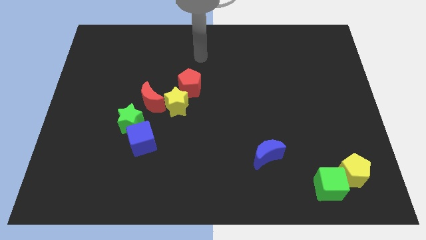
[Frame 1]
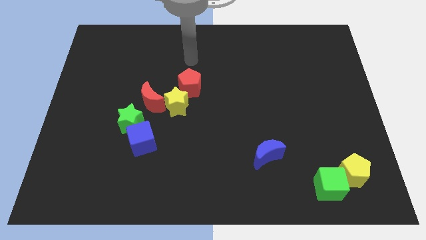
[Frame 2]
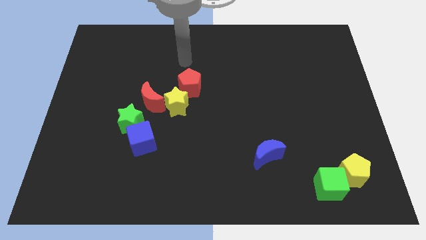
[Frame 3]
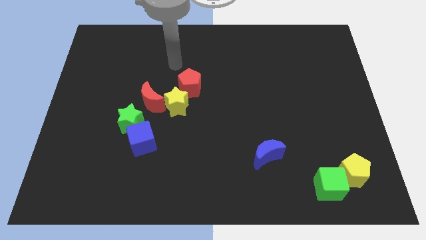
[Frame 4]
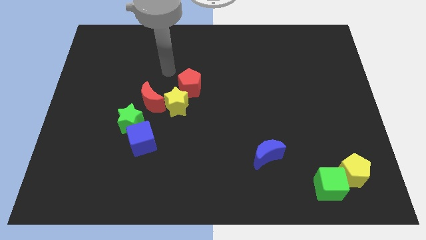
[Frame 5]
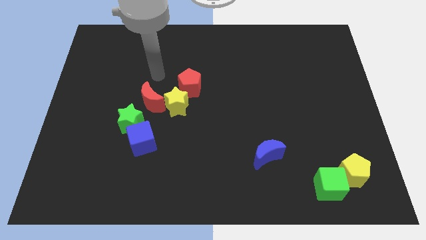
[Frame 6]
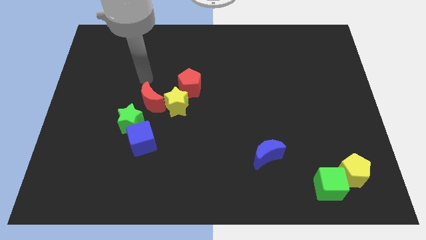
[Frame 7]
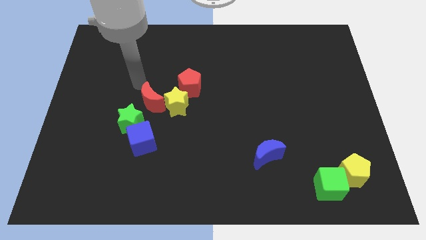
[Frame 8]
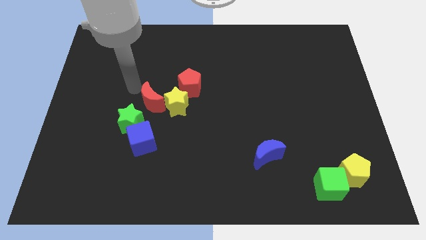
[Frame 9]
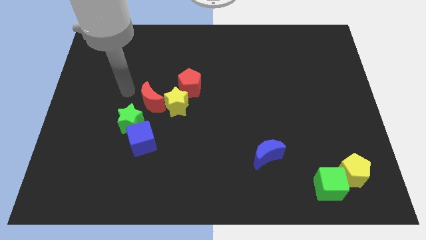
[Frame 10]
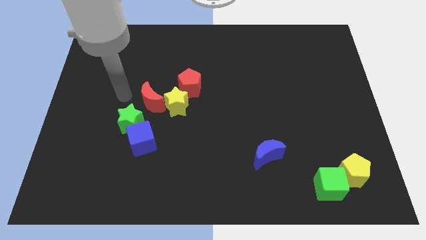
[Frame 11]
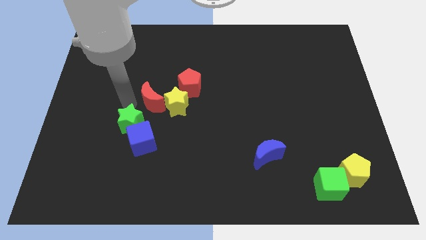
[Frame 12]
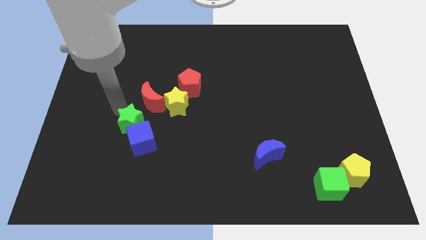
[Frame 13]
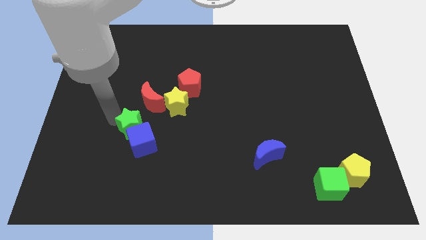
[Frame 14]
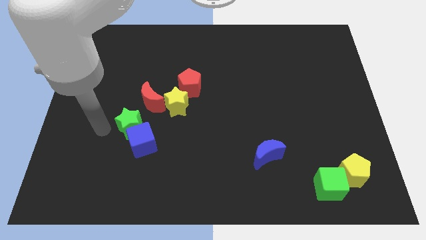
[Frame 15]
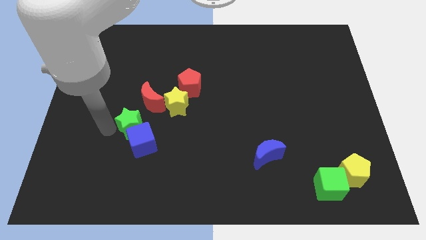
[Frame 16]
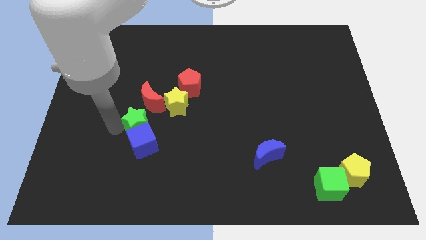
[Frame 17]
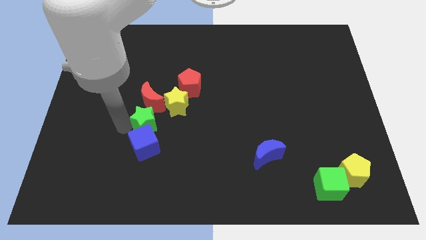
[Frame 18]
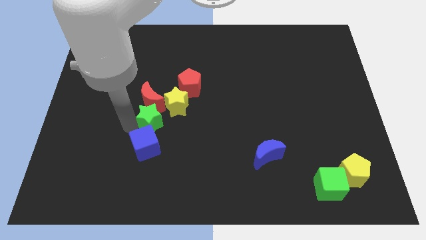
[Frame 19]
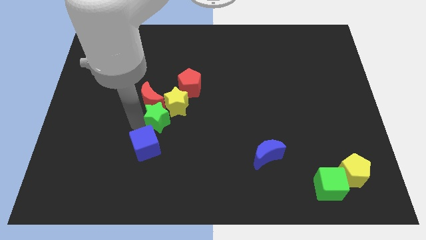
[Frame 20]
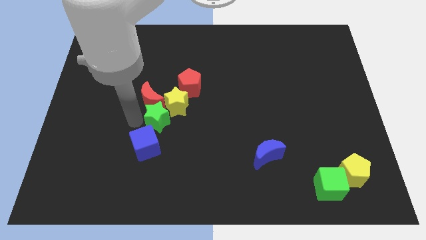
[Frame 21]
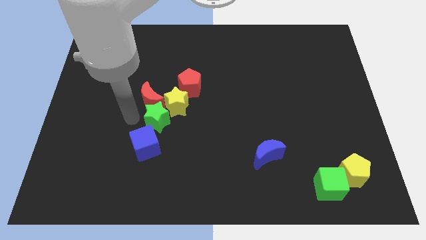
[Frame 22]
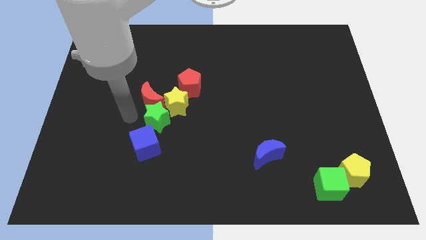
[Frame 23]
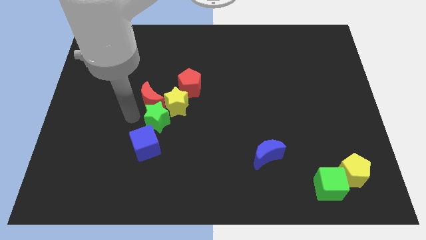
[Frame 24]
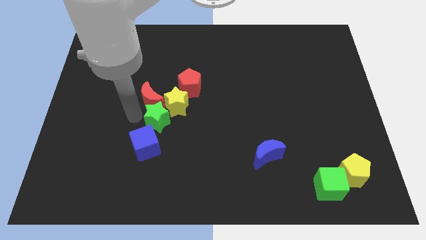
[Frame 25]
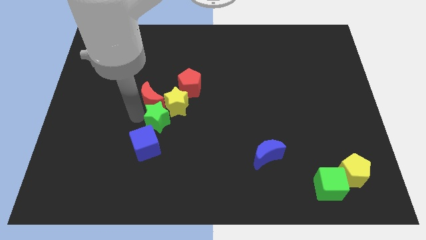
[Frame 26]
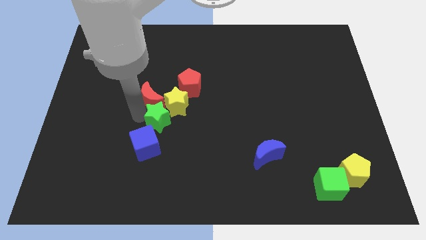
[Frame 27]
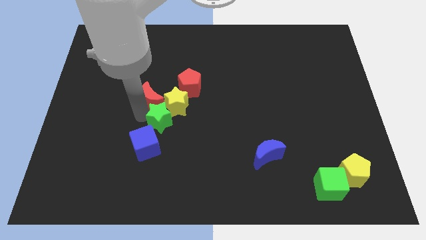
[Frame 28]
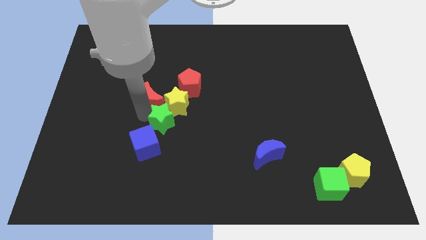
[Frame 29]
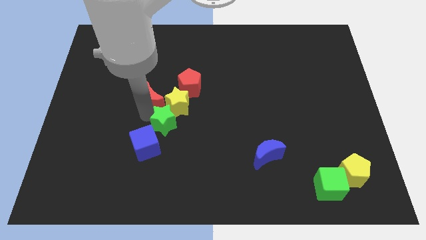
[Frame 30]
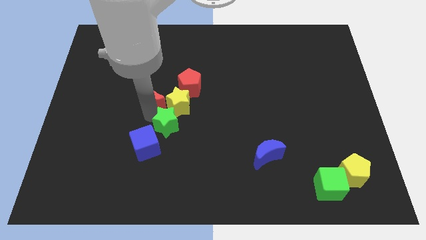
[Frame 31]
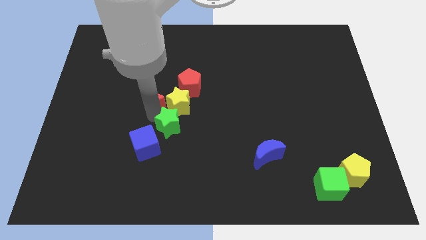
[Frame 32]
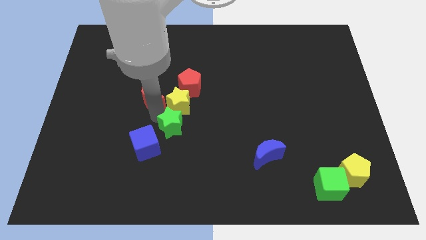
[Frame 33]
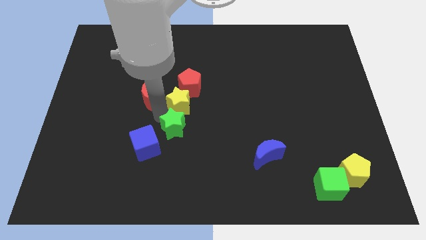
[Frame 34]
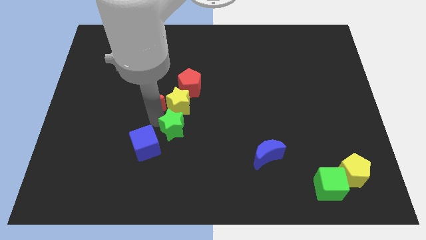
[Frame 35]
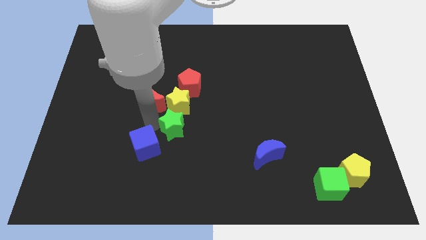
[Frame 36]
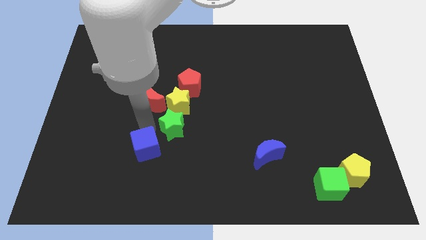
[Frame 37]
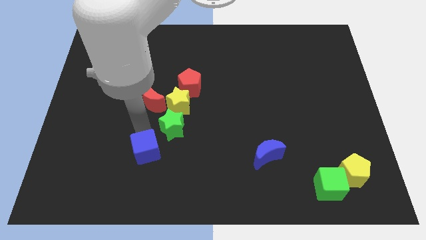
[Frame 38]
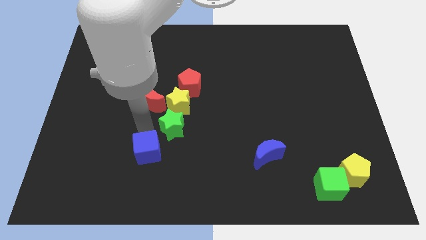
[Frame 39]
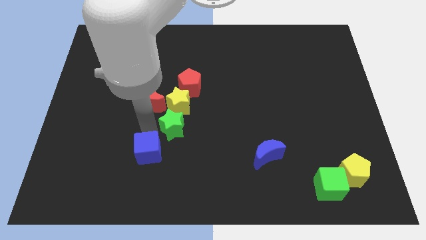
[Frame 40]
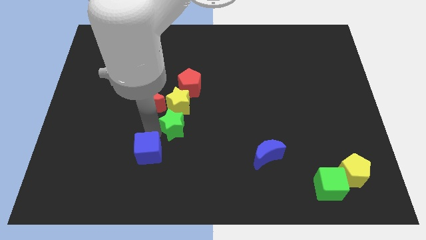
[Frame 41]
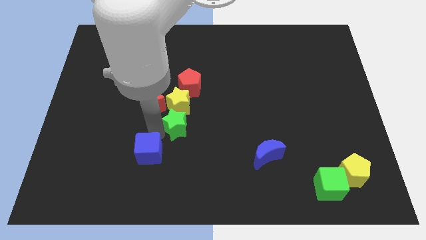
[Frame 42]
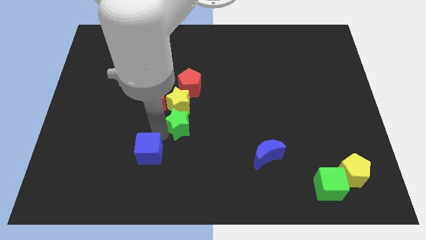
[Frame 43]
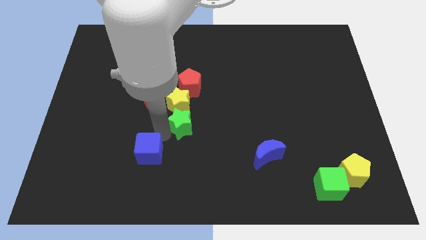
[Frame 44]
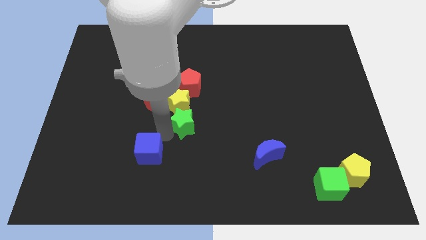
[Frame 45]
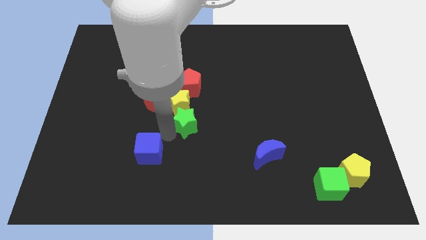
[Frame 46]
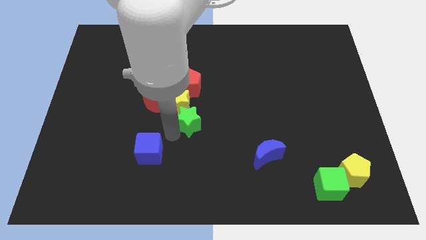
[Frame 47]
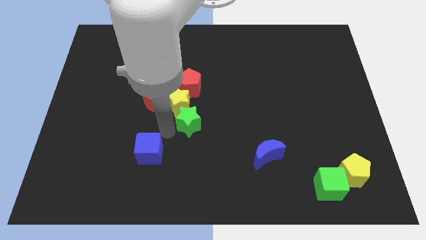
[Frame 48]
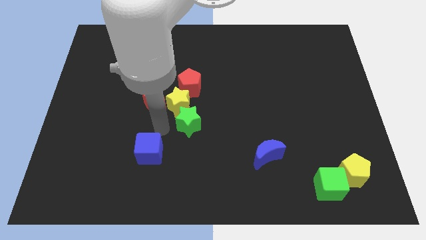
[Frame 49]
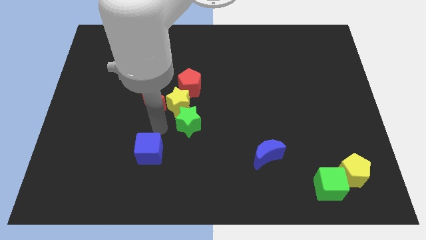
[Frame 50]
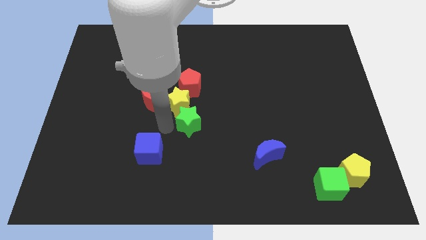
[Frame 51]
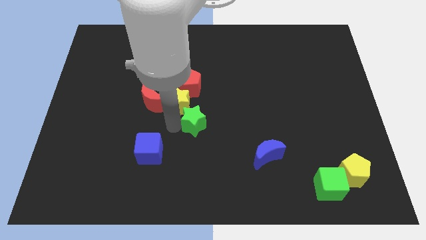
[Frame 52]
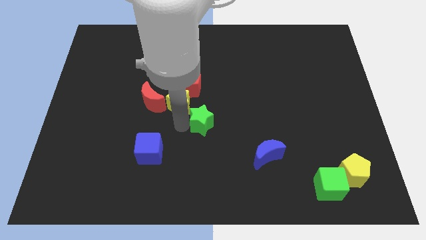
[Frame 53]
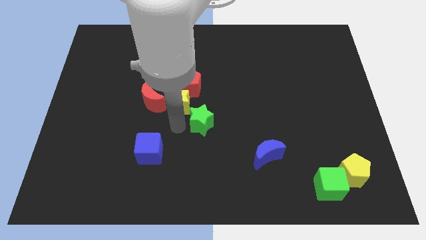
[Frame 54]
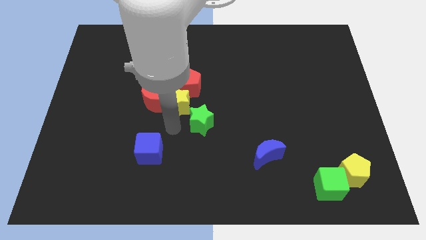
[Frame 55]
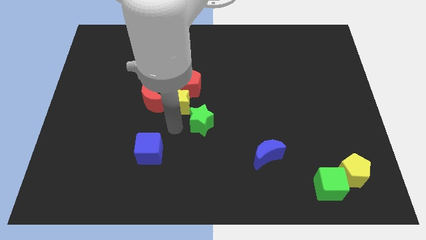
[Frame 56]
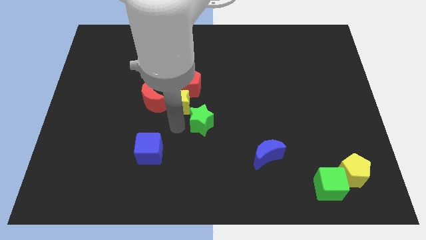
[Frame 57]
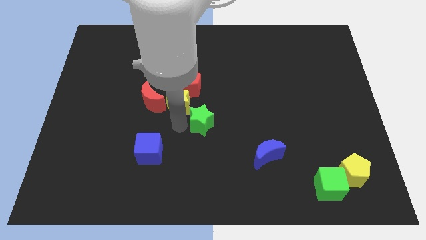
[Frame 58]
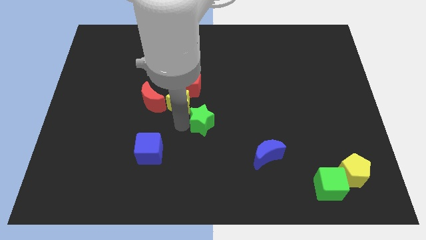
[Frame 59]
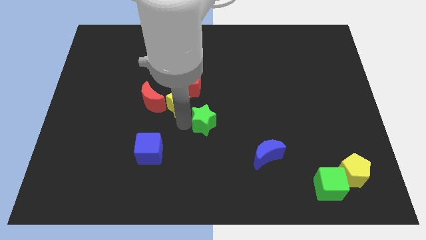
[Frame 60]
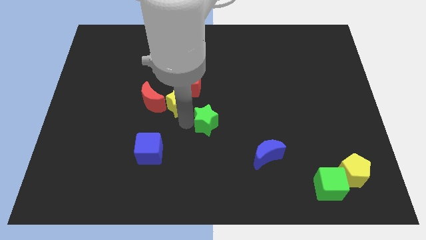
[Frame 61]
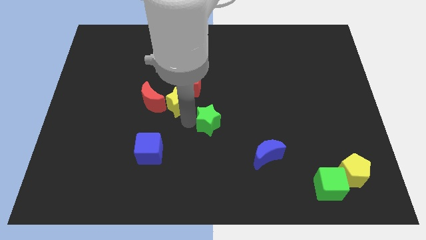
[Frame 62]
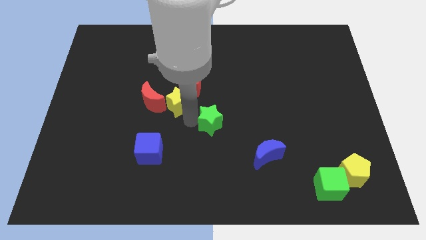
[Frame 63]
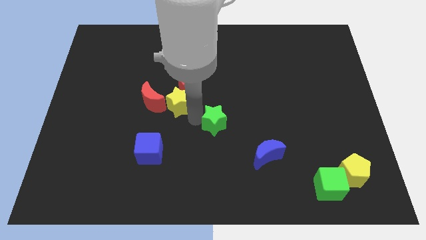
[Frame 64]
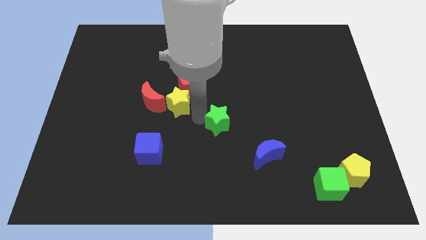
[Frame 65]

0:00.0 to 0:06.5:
slide the green star to the right

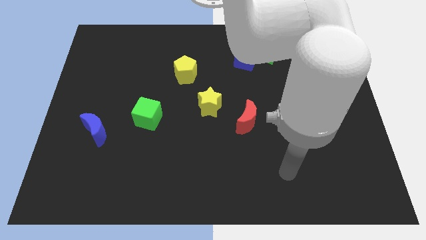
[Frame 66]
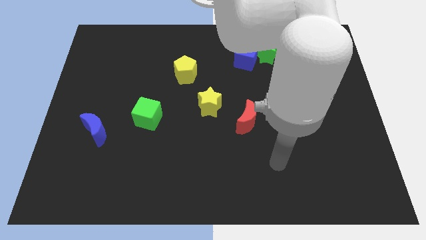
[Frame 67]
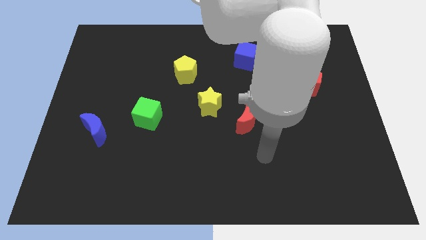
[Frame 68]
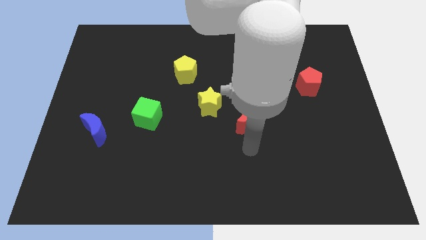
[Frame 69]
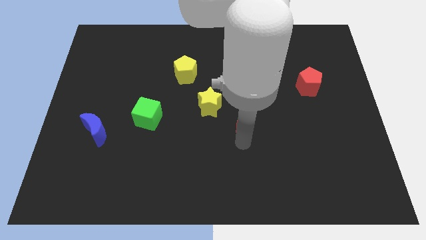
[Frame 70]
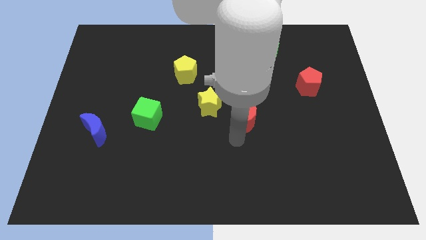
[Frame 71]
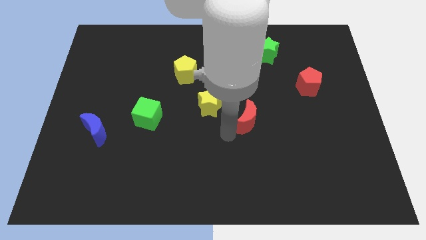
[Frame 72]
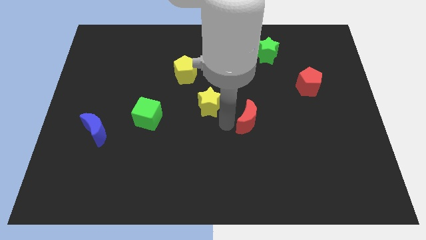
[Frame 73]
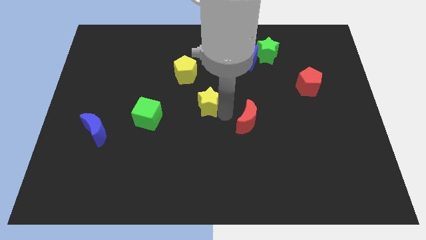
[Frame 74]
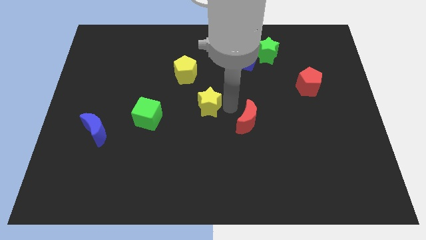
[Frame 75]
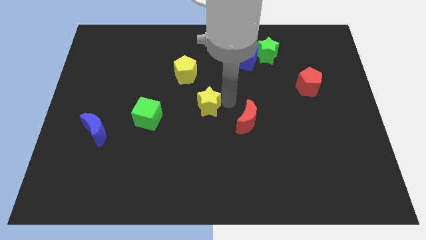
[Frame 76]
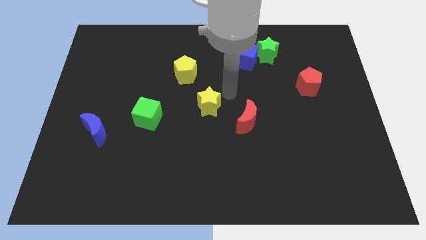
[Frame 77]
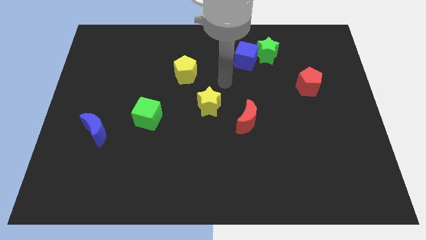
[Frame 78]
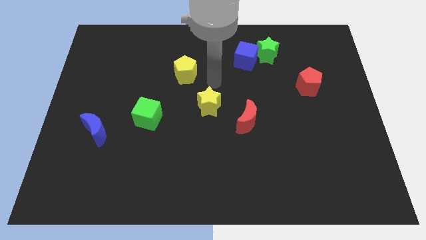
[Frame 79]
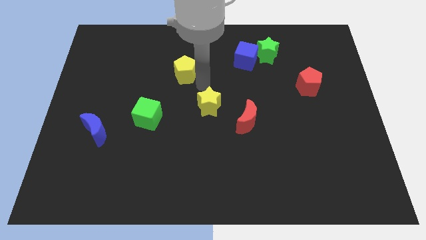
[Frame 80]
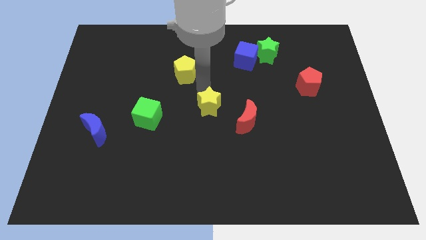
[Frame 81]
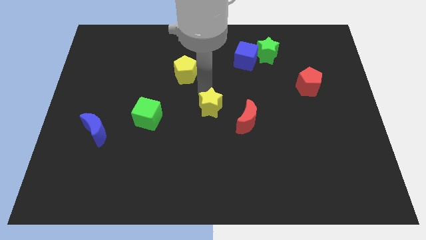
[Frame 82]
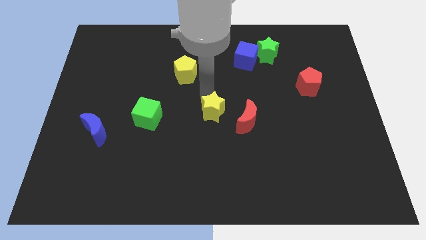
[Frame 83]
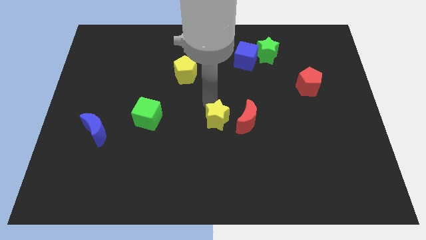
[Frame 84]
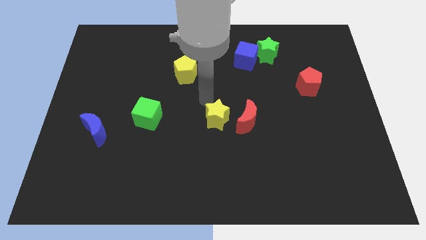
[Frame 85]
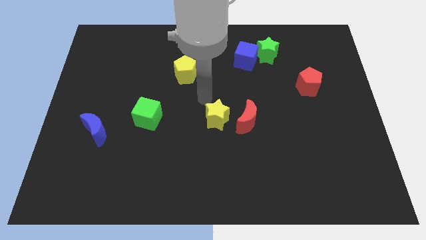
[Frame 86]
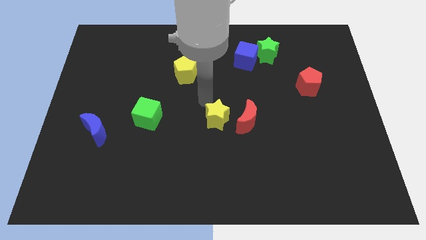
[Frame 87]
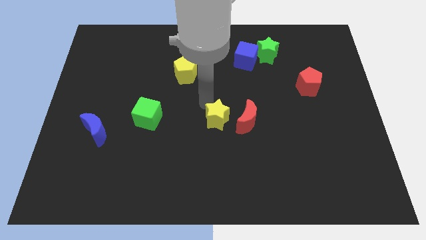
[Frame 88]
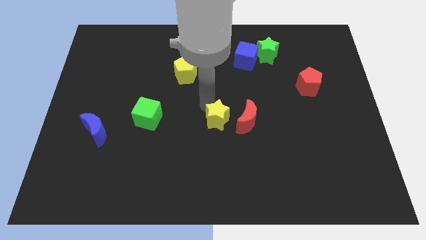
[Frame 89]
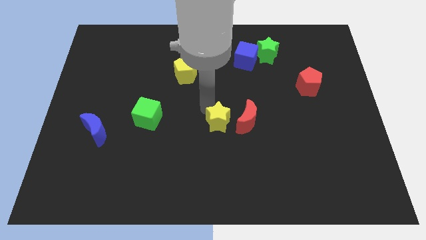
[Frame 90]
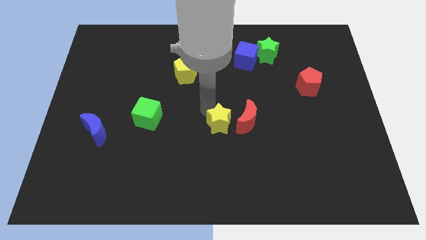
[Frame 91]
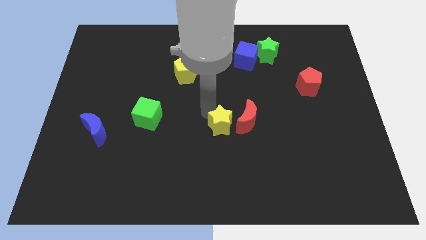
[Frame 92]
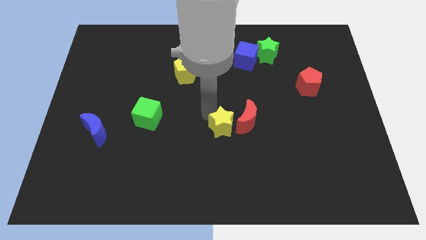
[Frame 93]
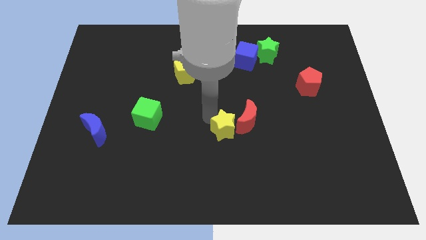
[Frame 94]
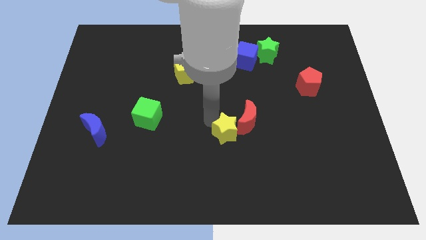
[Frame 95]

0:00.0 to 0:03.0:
push the yellow star downwards and to the right diagonally slightly
